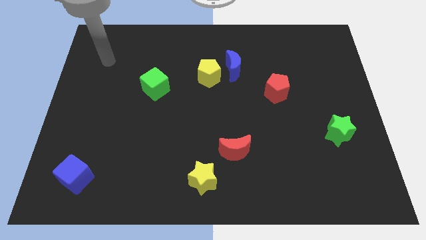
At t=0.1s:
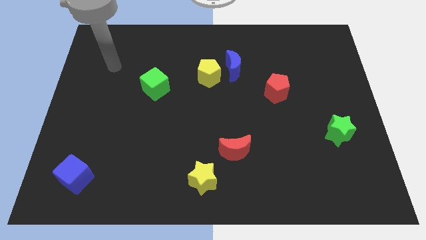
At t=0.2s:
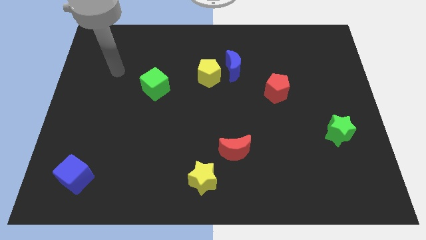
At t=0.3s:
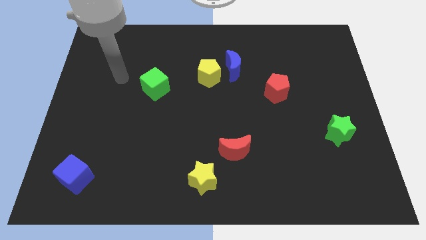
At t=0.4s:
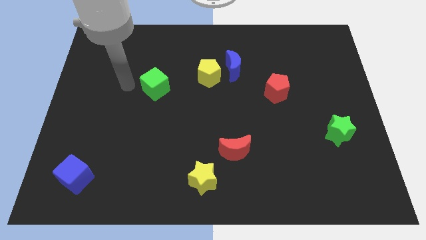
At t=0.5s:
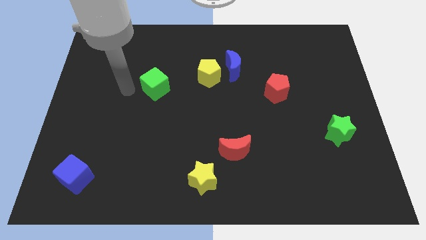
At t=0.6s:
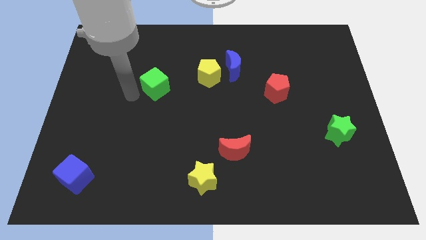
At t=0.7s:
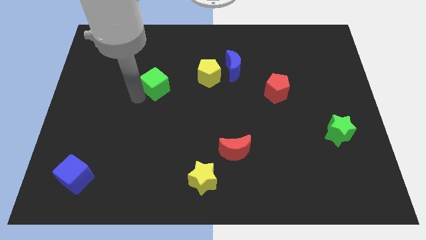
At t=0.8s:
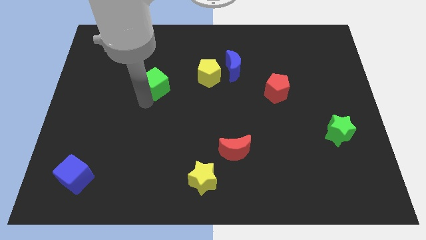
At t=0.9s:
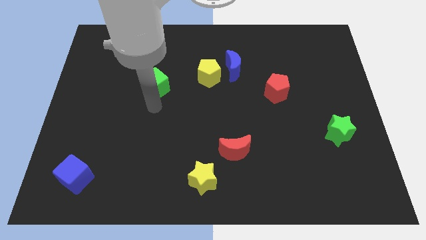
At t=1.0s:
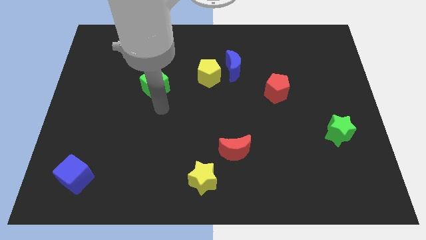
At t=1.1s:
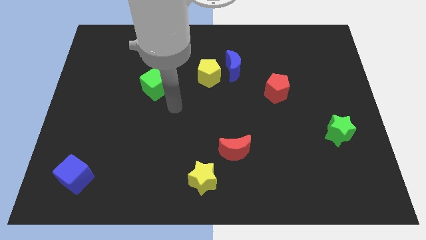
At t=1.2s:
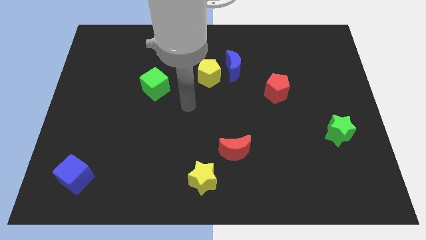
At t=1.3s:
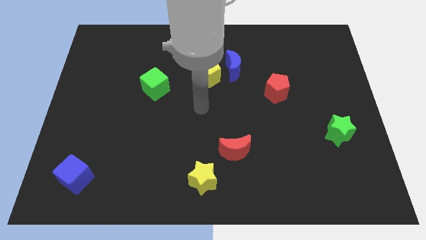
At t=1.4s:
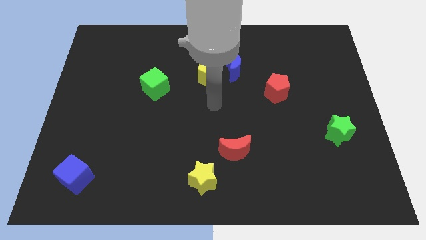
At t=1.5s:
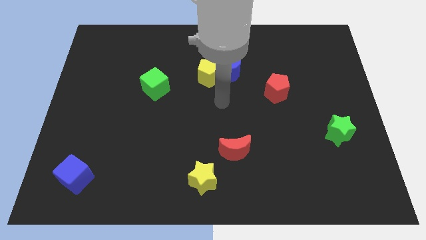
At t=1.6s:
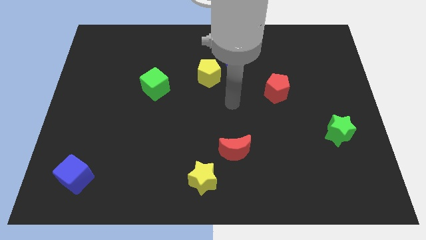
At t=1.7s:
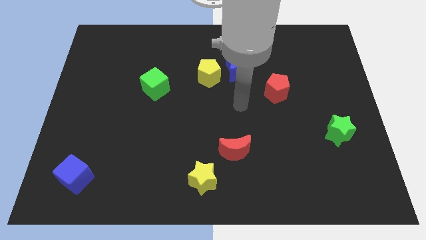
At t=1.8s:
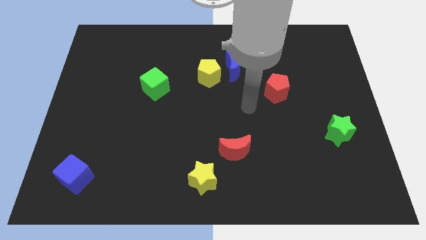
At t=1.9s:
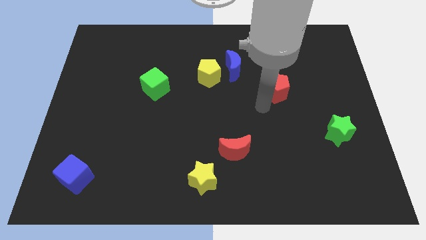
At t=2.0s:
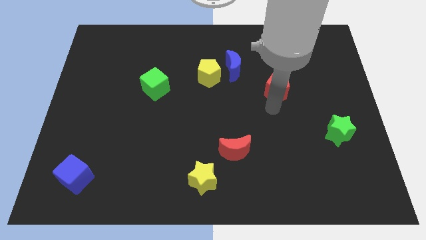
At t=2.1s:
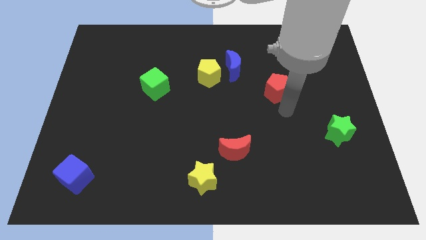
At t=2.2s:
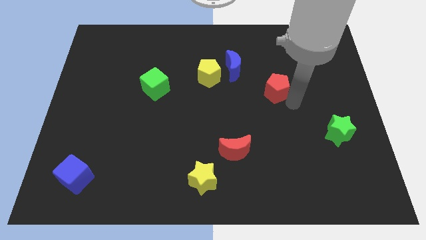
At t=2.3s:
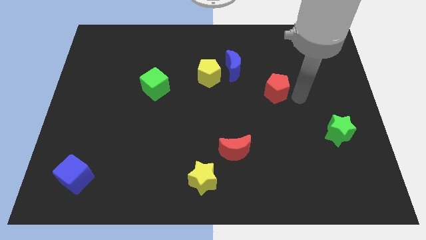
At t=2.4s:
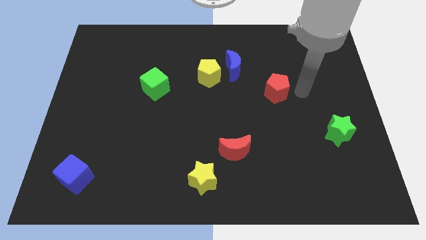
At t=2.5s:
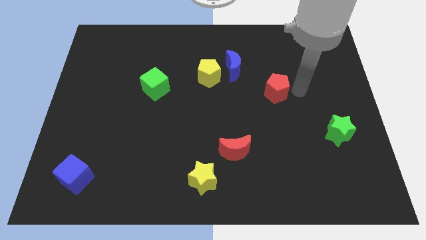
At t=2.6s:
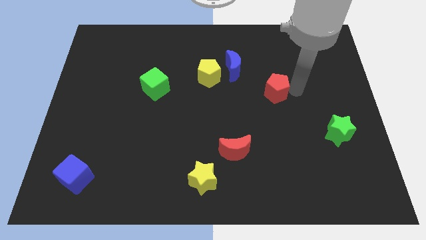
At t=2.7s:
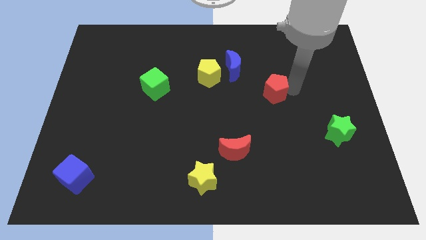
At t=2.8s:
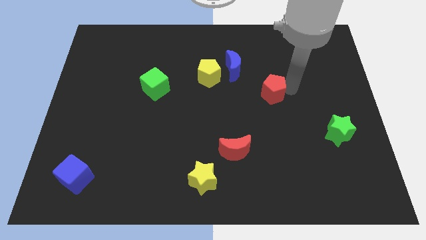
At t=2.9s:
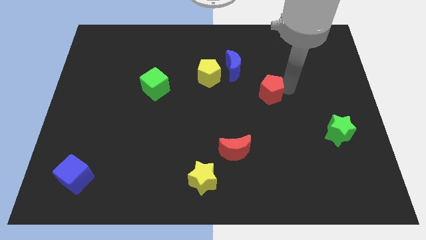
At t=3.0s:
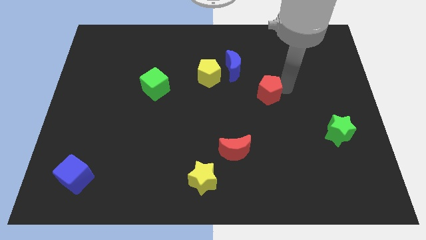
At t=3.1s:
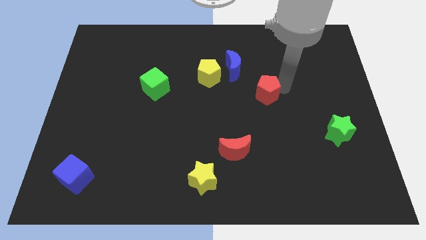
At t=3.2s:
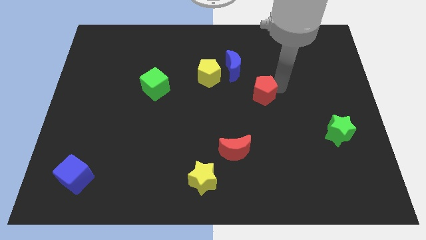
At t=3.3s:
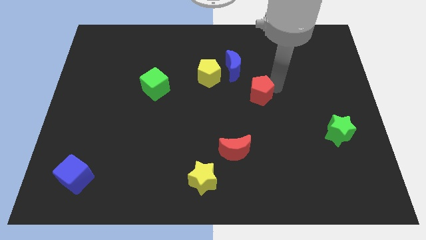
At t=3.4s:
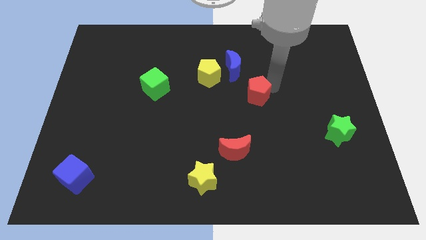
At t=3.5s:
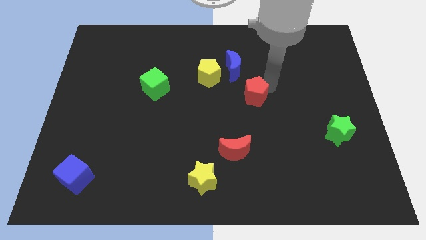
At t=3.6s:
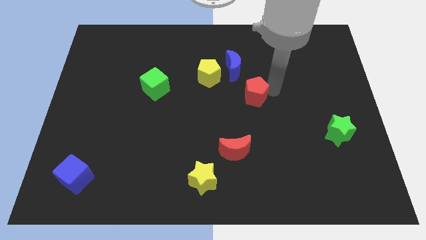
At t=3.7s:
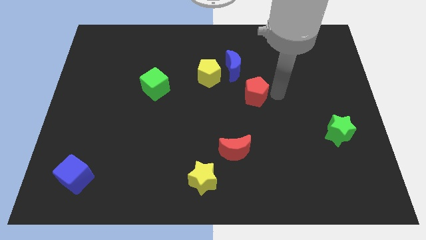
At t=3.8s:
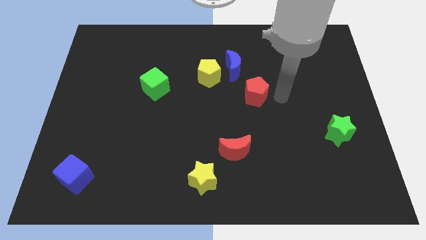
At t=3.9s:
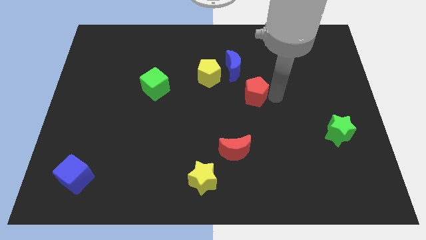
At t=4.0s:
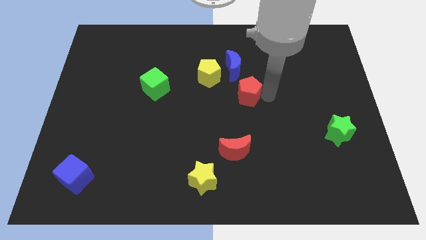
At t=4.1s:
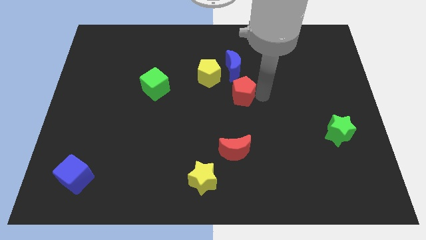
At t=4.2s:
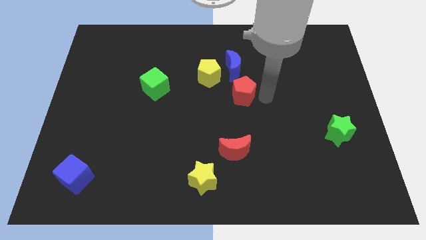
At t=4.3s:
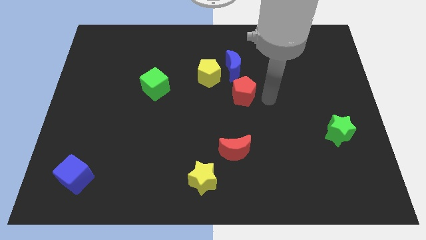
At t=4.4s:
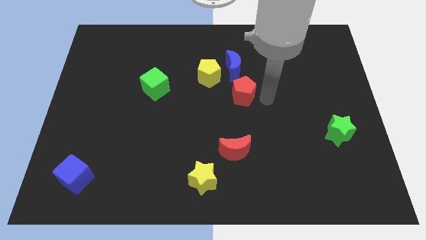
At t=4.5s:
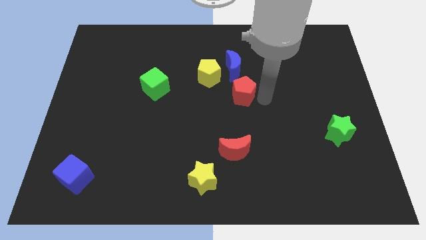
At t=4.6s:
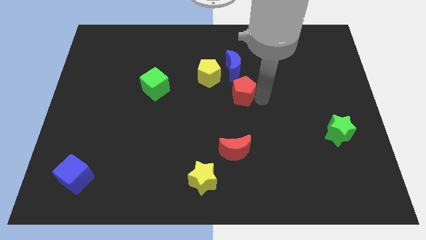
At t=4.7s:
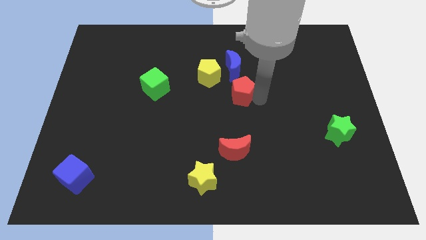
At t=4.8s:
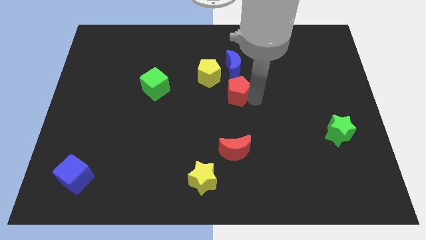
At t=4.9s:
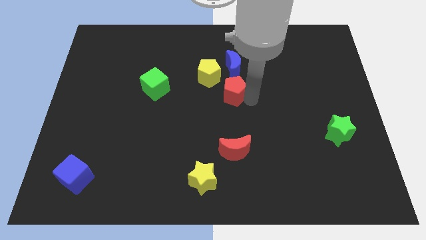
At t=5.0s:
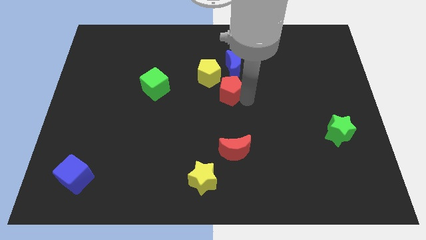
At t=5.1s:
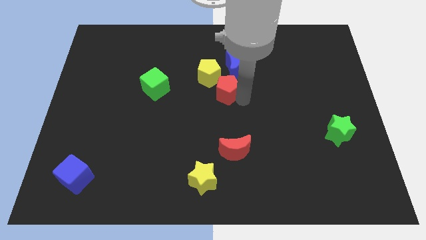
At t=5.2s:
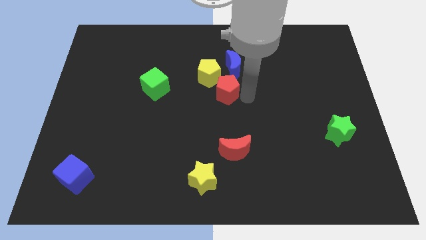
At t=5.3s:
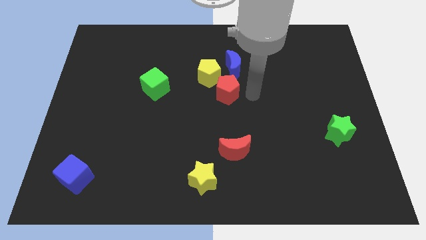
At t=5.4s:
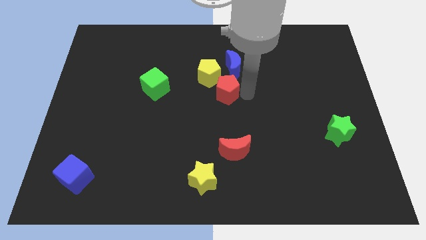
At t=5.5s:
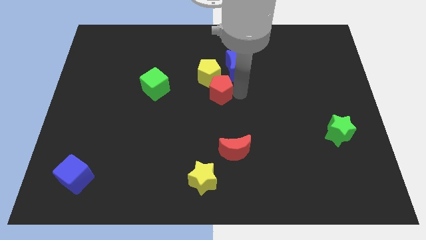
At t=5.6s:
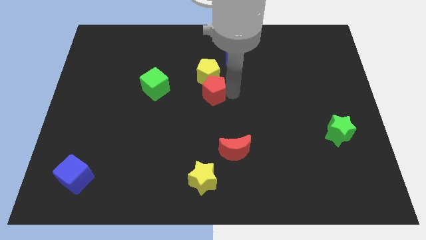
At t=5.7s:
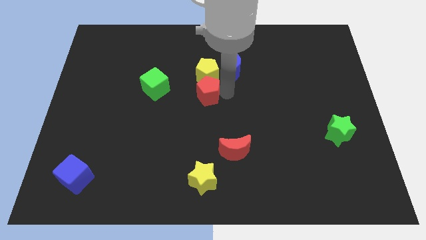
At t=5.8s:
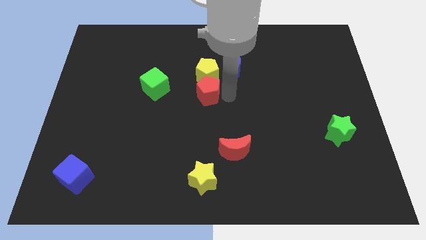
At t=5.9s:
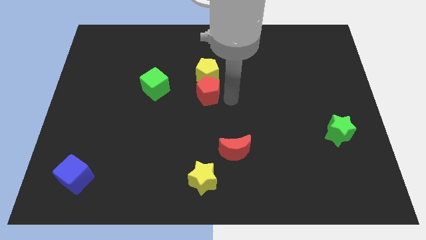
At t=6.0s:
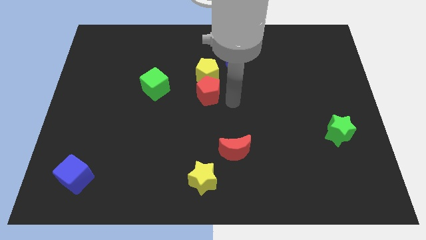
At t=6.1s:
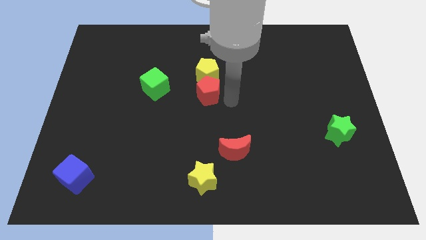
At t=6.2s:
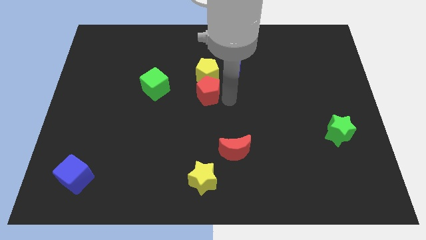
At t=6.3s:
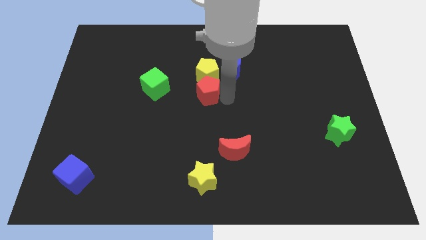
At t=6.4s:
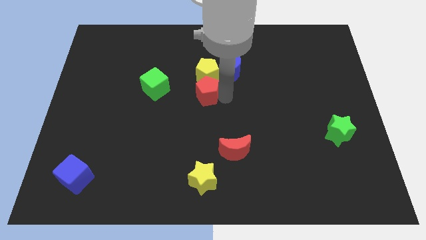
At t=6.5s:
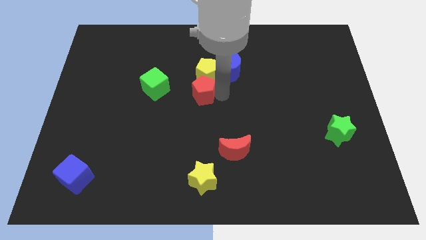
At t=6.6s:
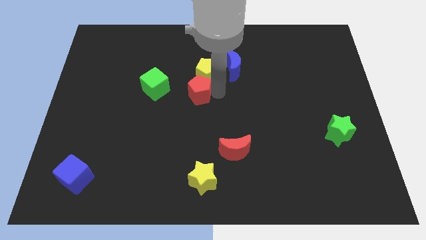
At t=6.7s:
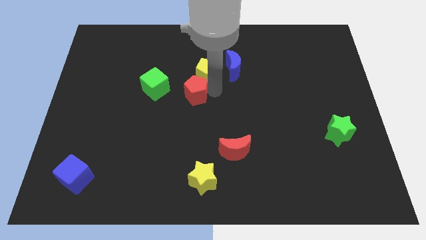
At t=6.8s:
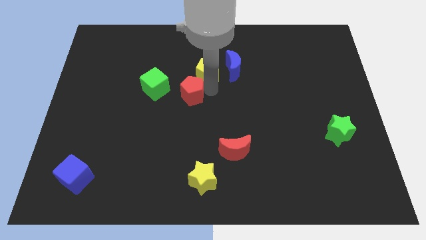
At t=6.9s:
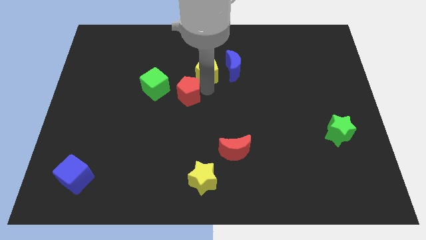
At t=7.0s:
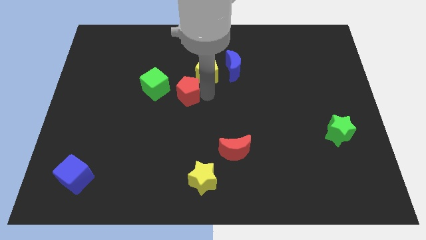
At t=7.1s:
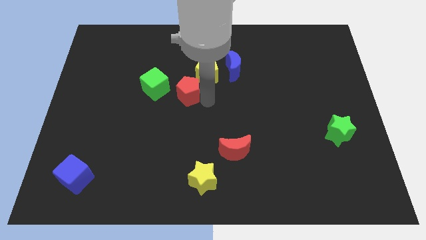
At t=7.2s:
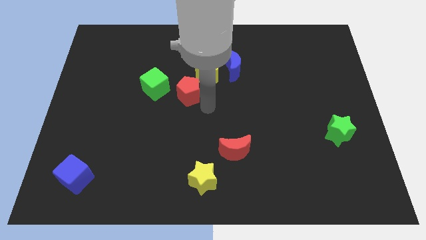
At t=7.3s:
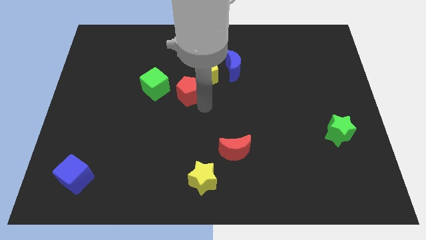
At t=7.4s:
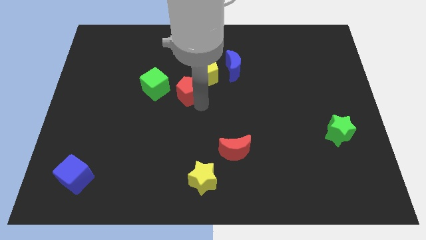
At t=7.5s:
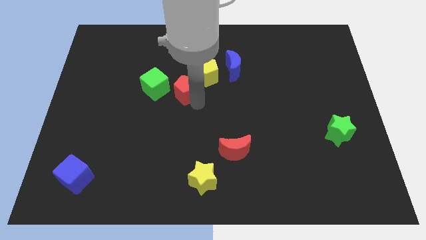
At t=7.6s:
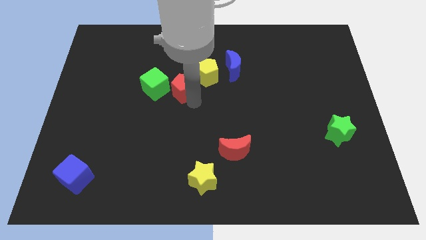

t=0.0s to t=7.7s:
push the red pentagon just left of the yellow pentagon
